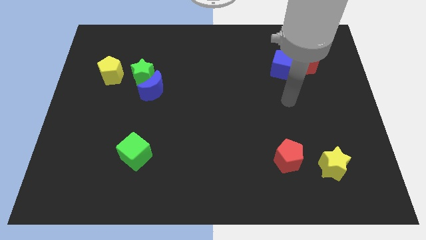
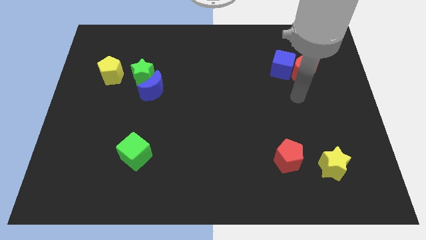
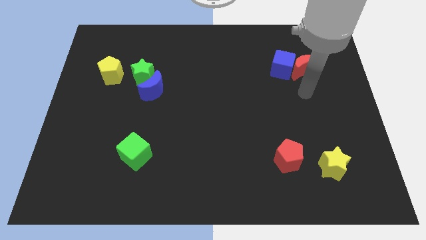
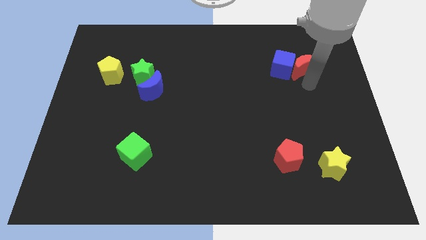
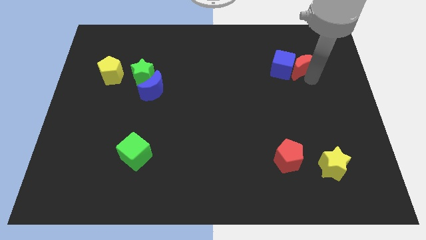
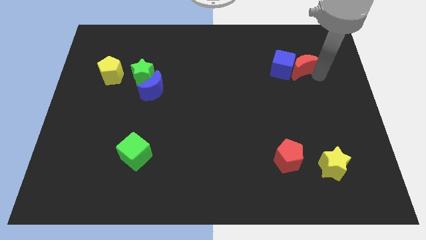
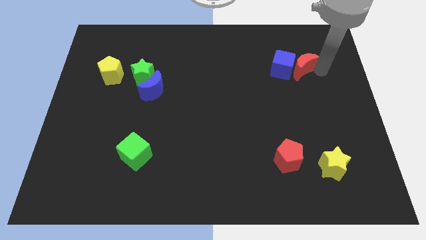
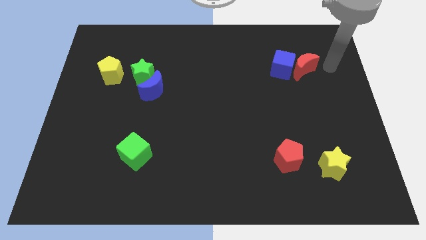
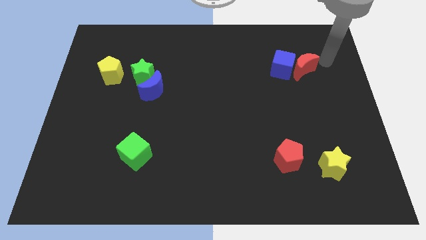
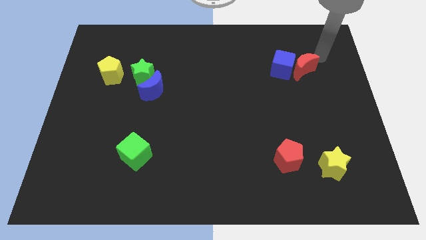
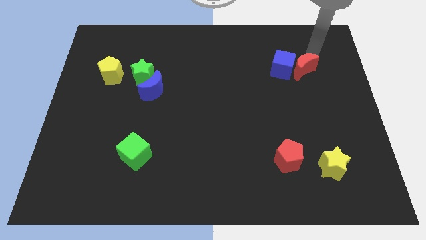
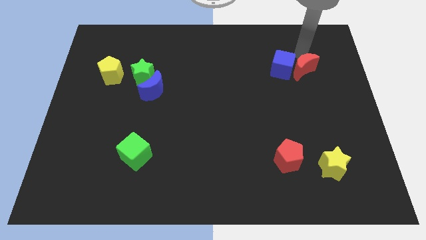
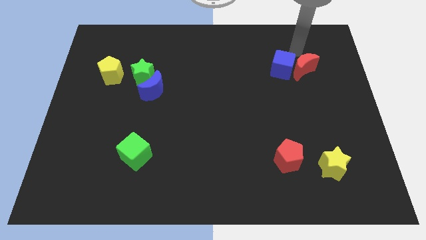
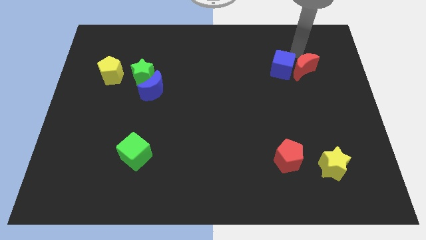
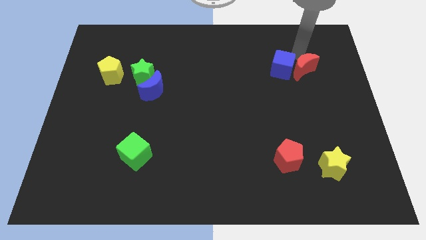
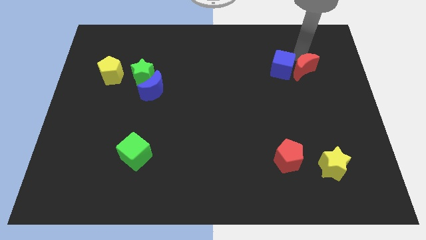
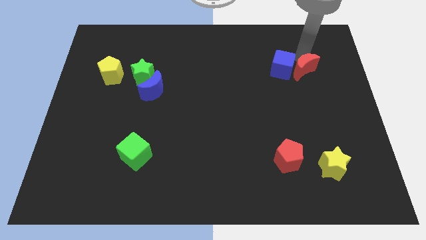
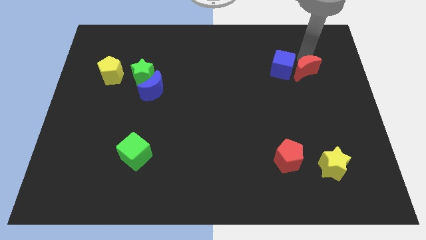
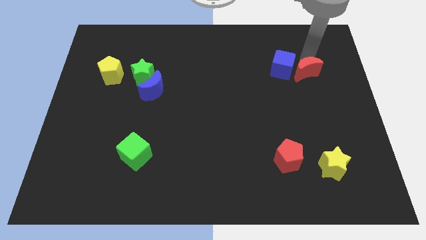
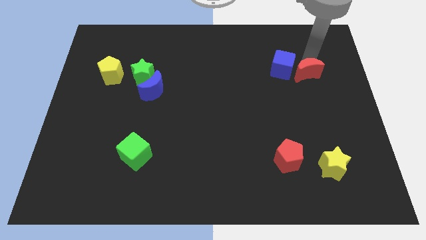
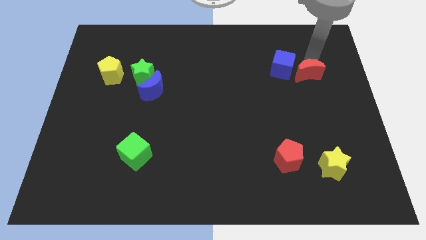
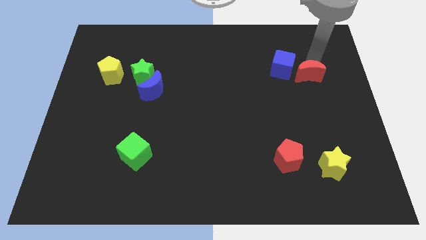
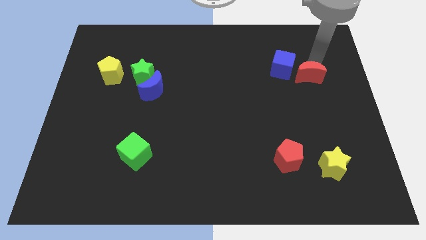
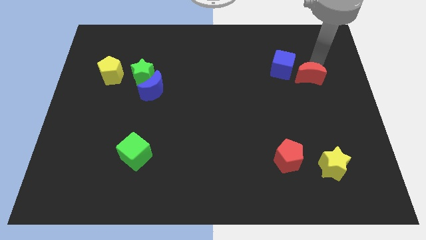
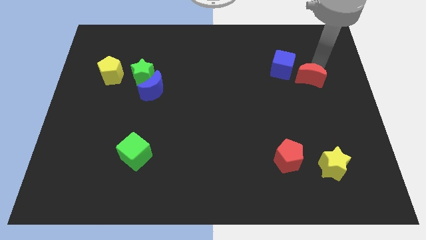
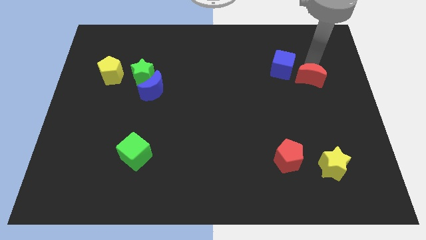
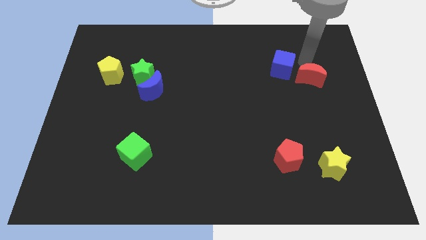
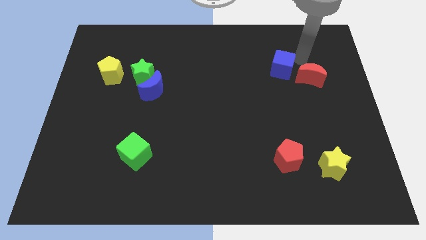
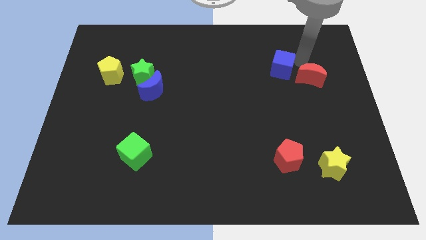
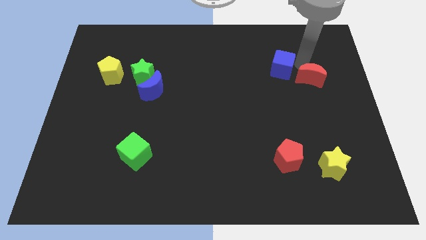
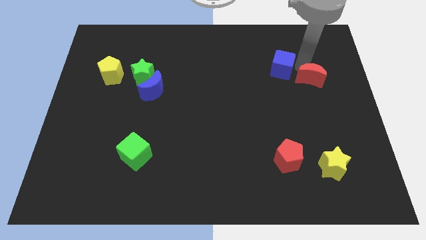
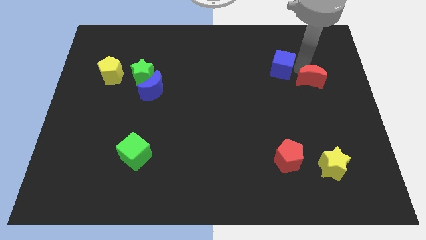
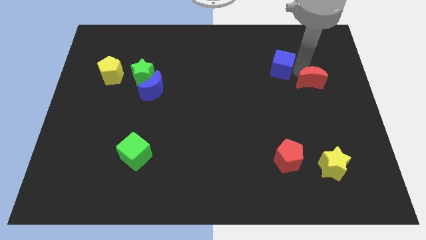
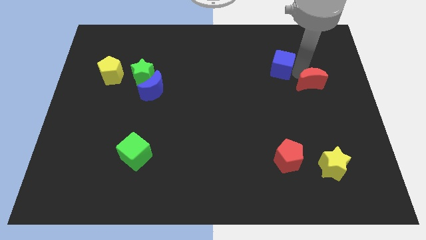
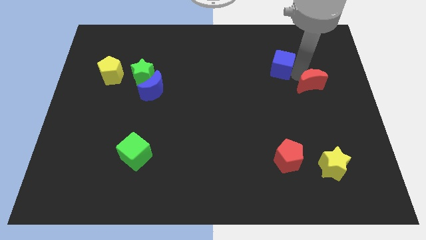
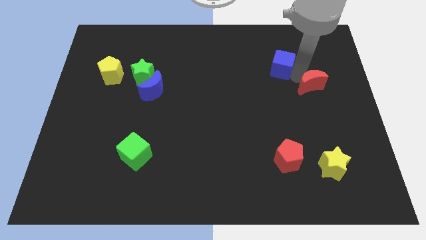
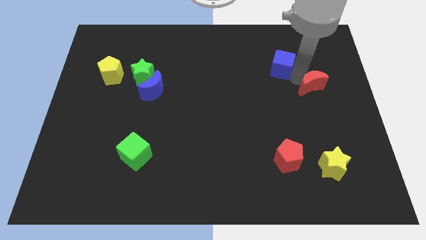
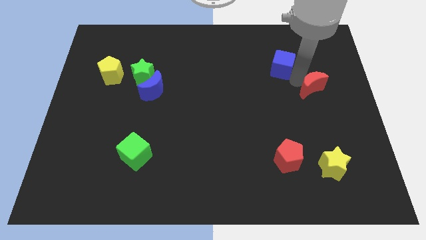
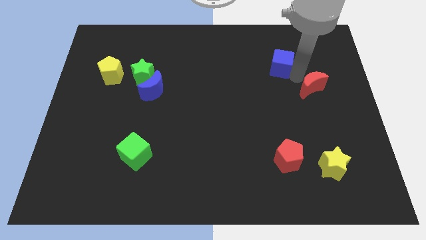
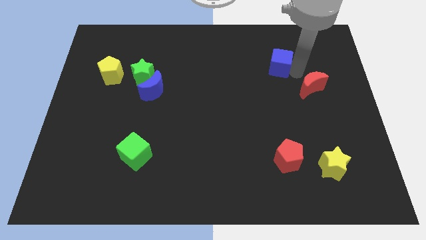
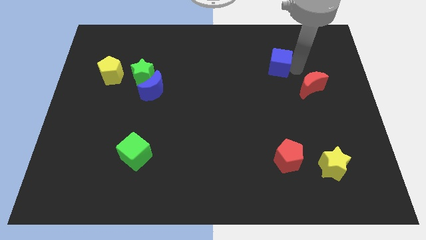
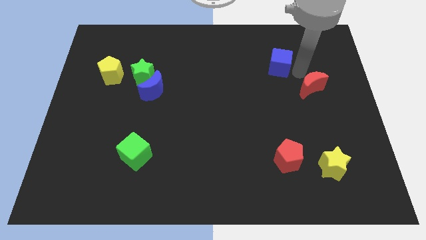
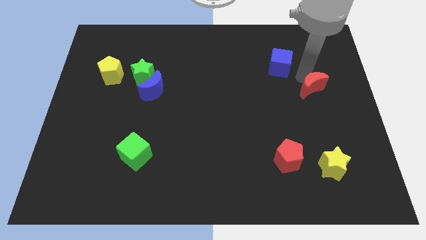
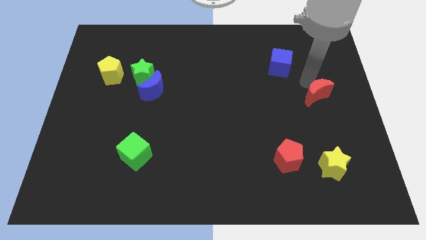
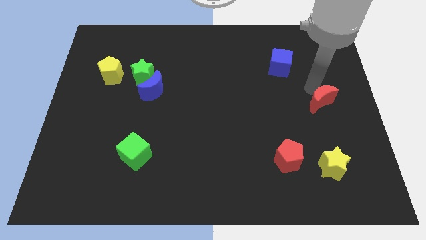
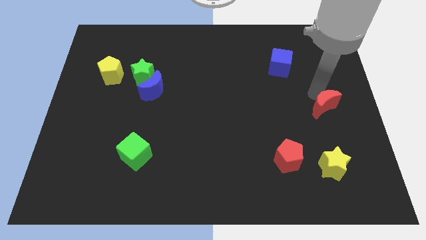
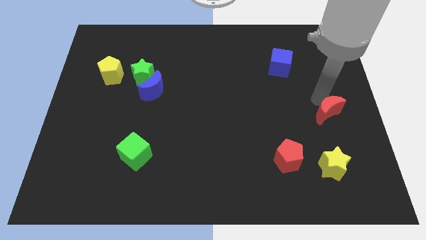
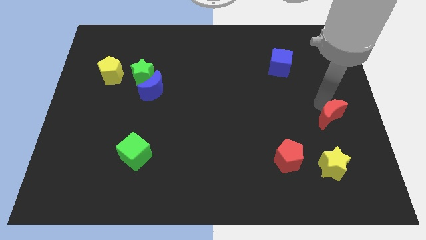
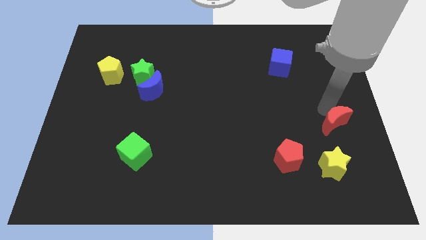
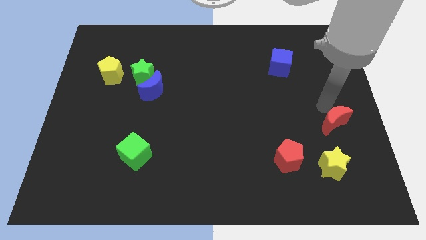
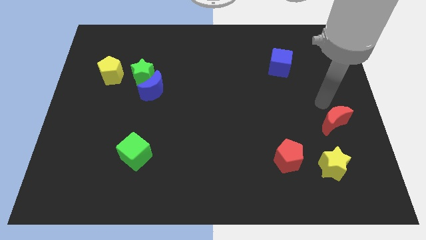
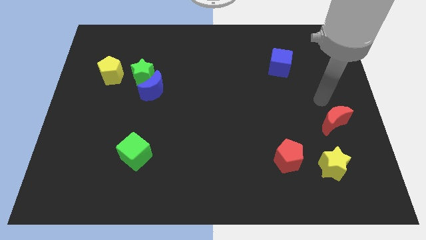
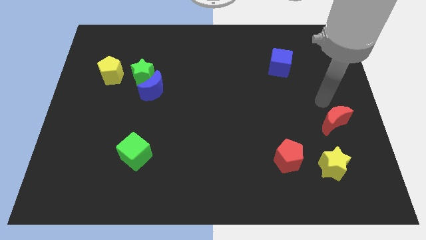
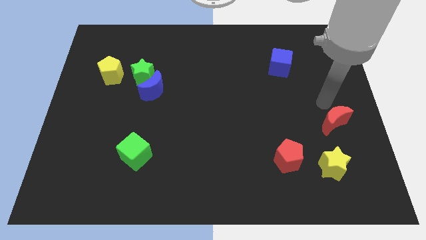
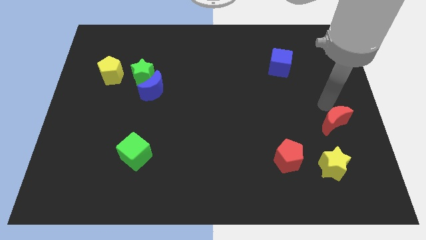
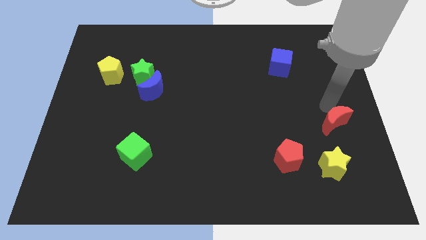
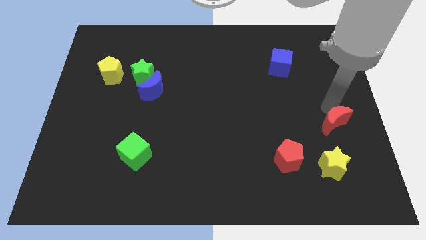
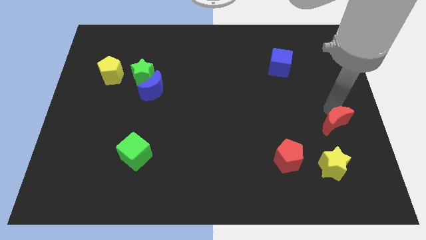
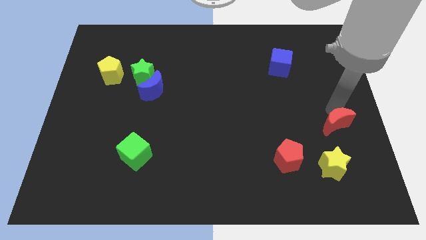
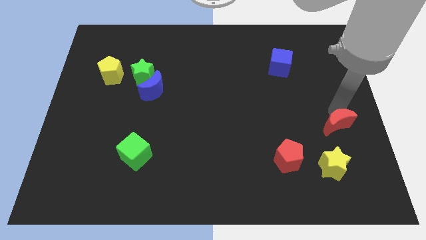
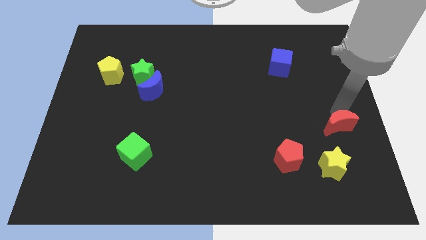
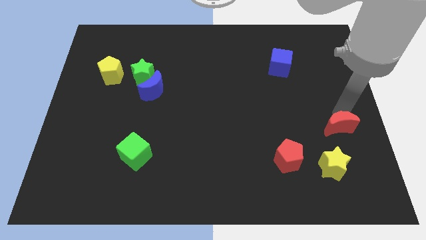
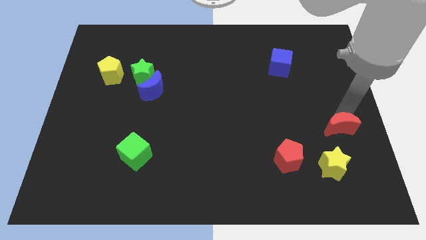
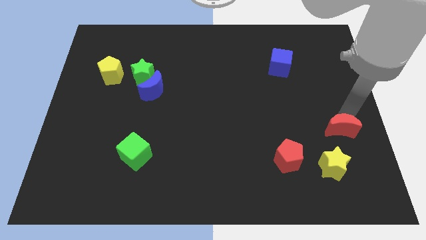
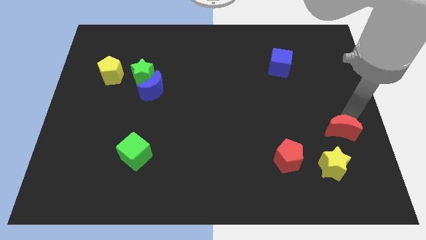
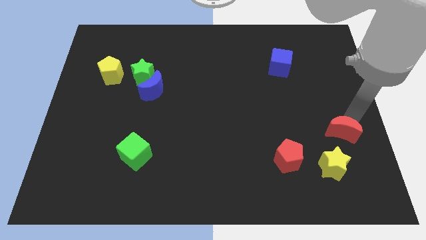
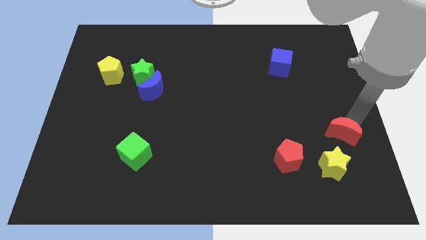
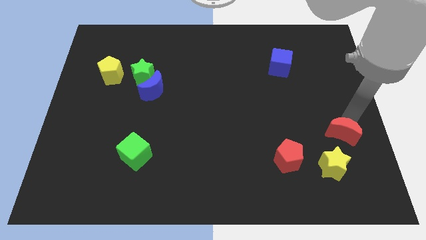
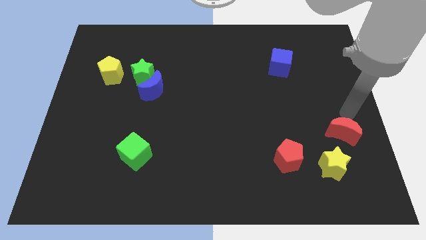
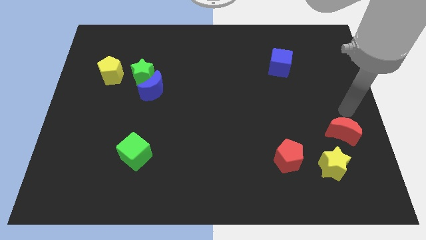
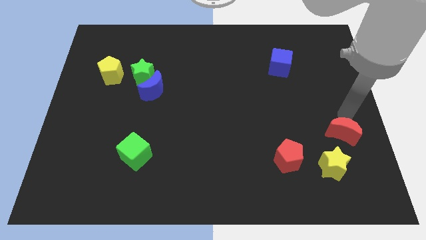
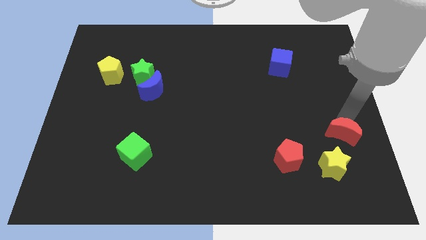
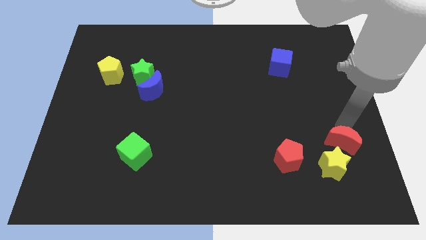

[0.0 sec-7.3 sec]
put the red moon right of the red pentagon
